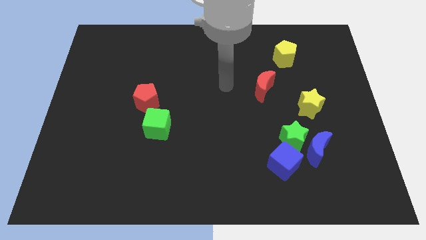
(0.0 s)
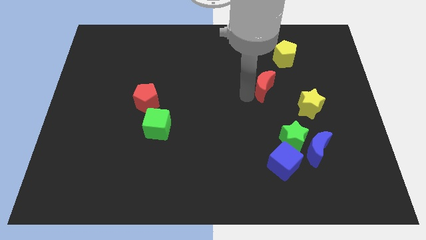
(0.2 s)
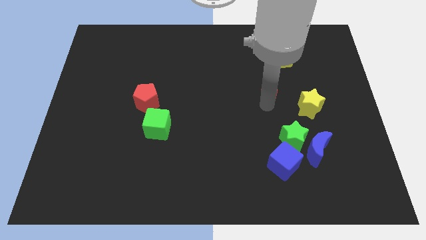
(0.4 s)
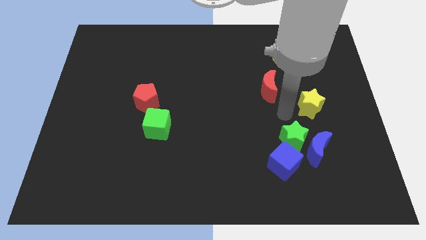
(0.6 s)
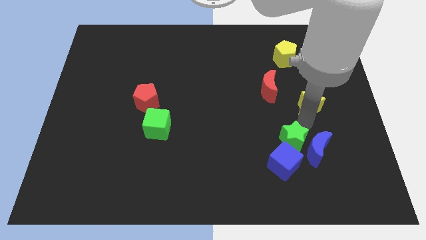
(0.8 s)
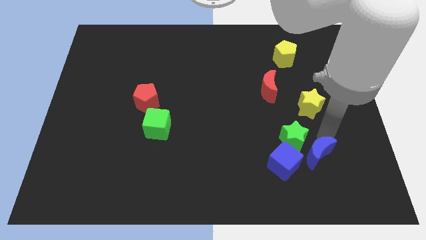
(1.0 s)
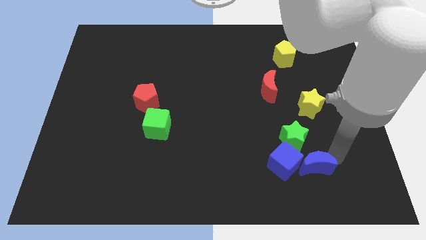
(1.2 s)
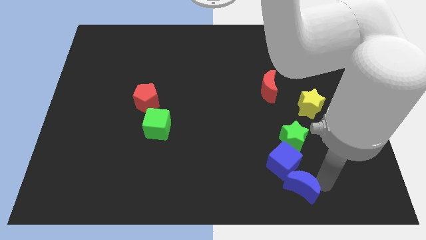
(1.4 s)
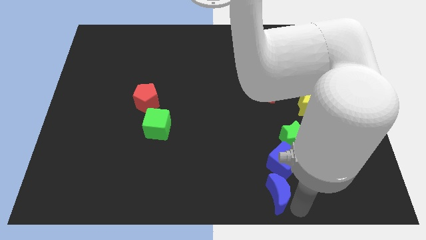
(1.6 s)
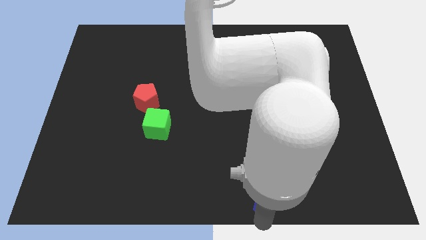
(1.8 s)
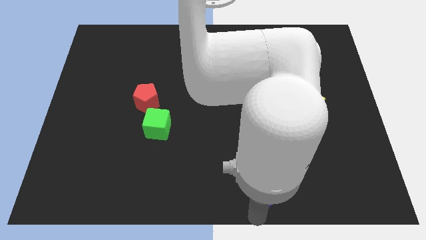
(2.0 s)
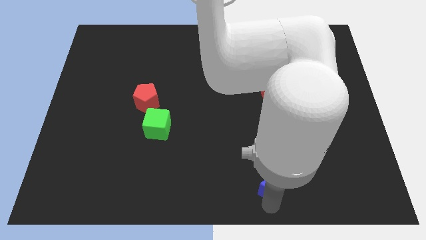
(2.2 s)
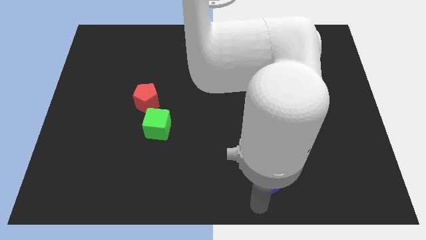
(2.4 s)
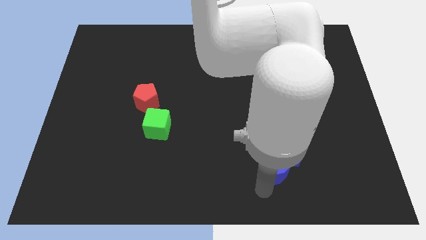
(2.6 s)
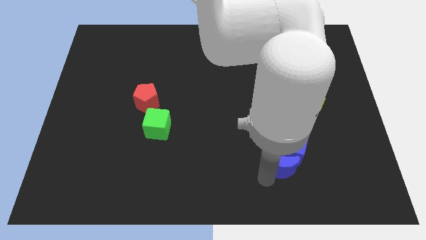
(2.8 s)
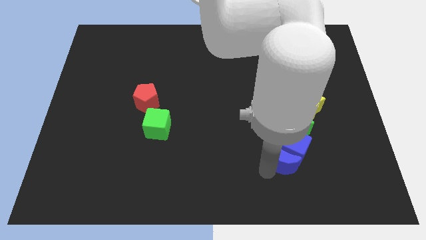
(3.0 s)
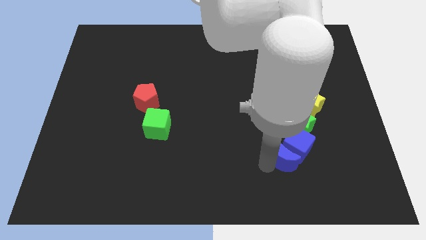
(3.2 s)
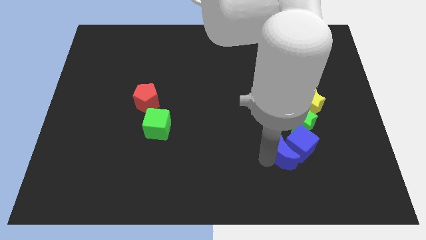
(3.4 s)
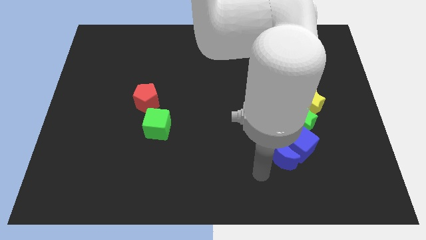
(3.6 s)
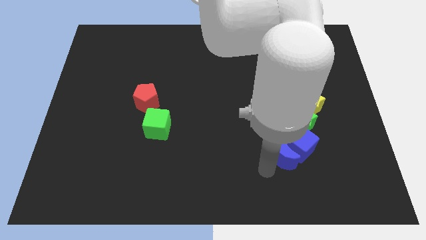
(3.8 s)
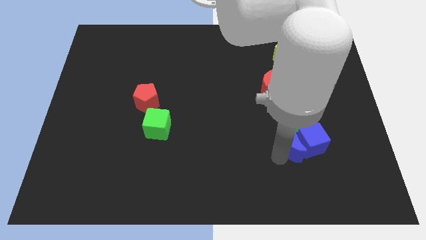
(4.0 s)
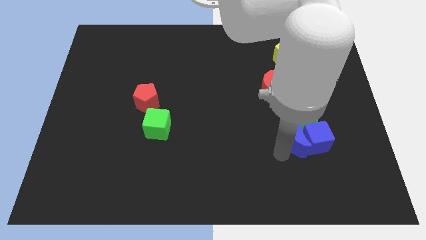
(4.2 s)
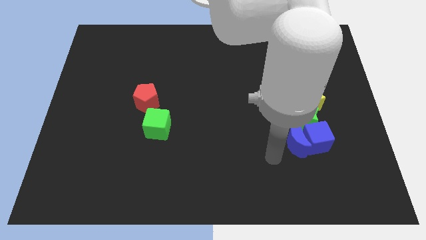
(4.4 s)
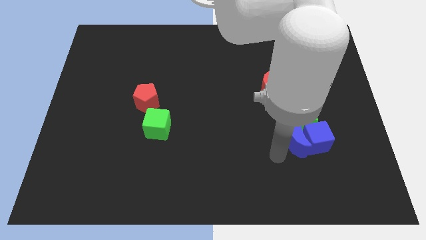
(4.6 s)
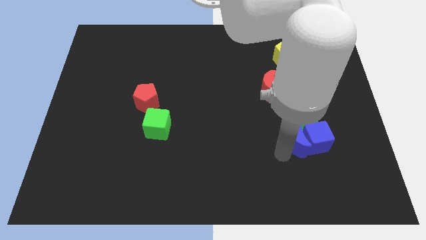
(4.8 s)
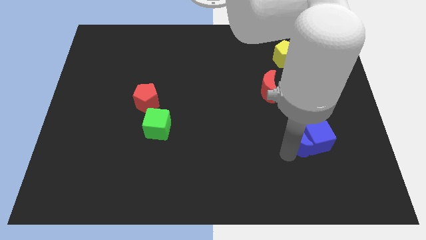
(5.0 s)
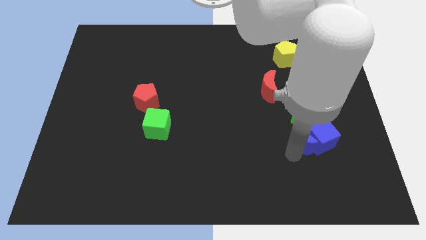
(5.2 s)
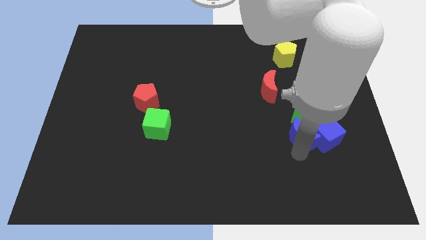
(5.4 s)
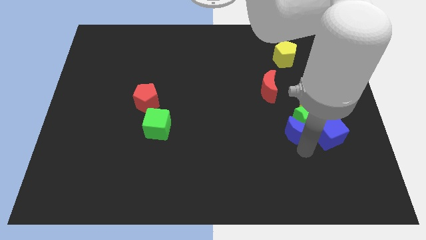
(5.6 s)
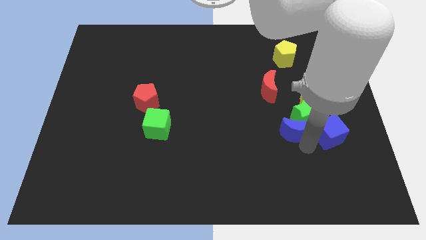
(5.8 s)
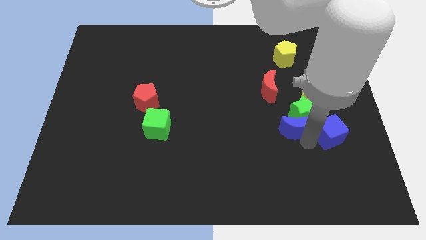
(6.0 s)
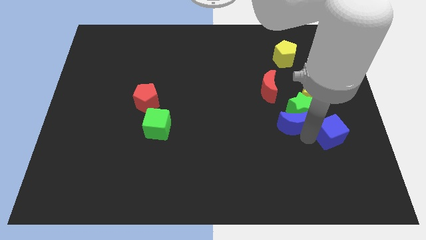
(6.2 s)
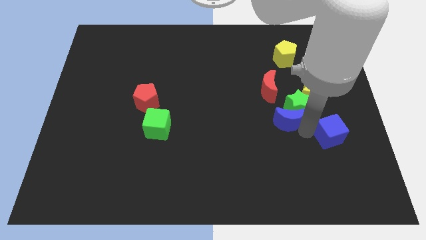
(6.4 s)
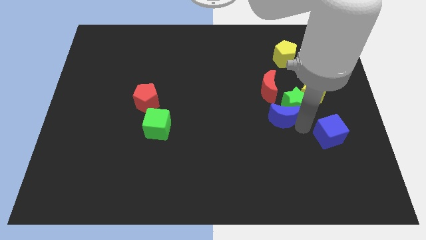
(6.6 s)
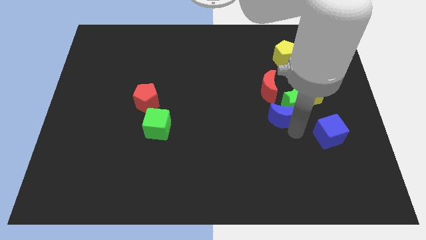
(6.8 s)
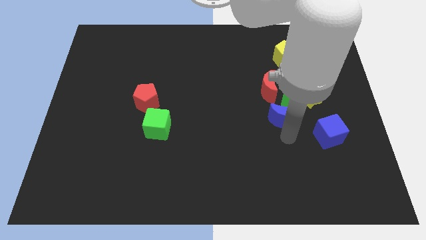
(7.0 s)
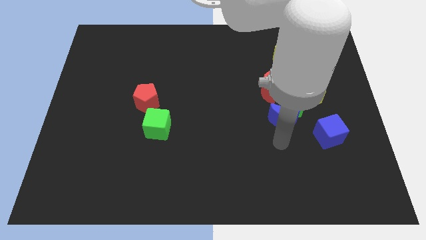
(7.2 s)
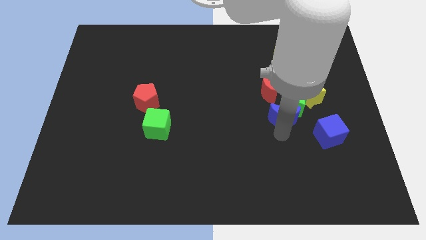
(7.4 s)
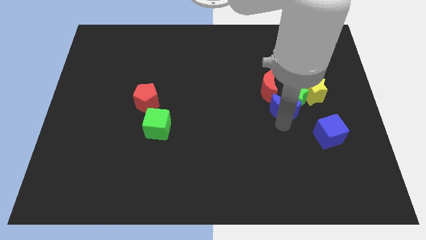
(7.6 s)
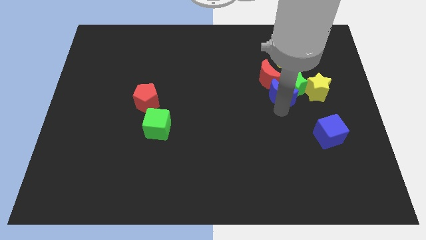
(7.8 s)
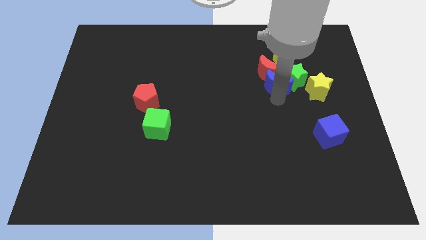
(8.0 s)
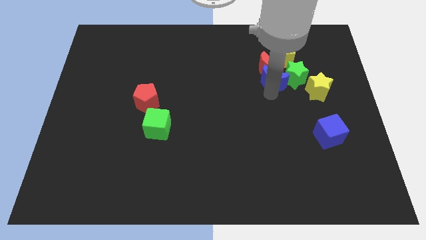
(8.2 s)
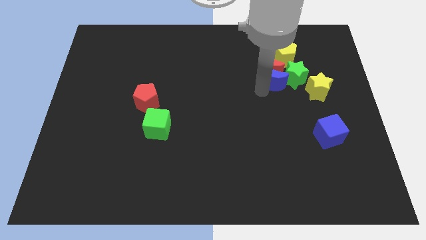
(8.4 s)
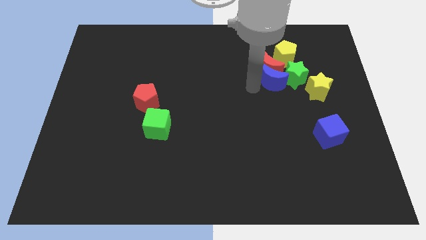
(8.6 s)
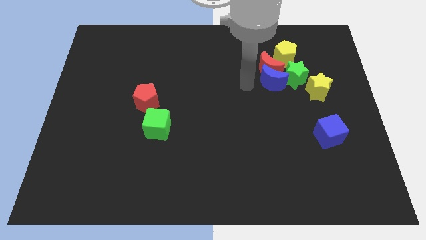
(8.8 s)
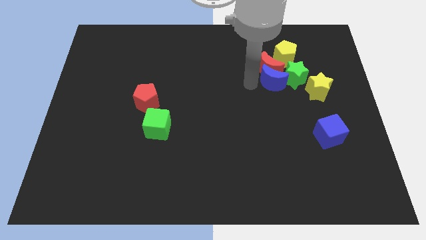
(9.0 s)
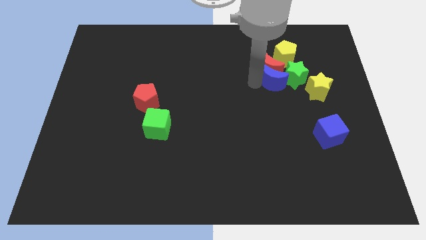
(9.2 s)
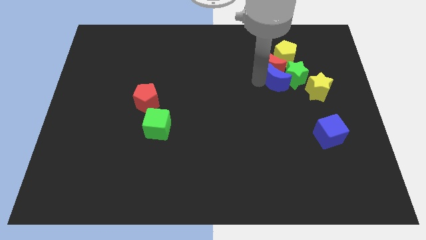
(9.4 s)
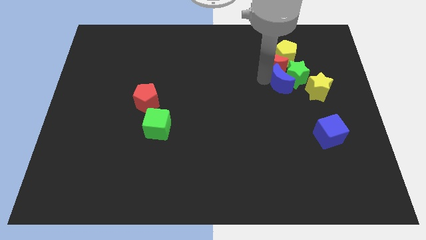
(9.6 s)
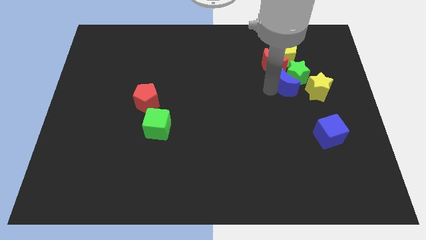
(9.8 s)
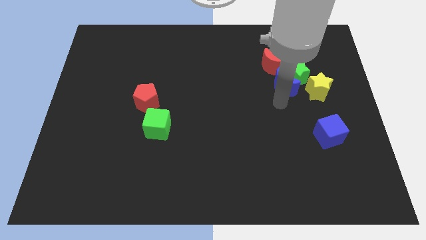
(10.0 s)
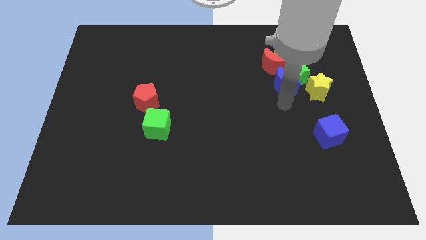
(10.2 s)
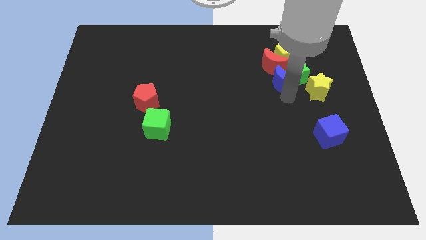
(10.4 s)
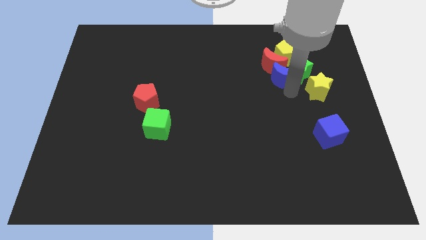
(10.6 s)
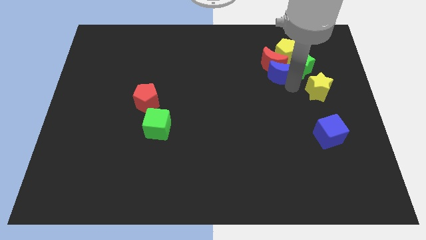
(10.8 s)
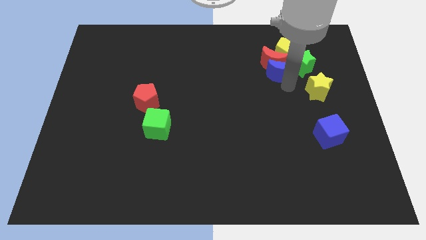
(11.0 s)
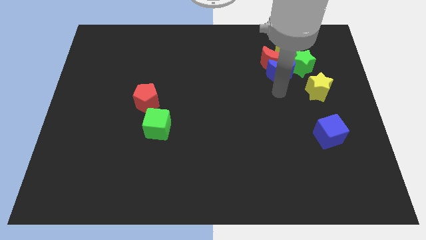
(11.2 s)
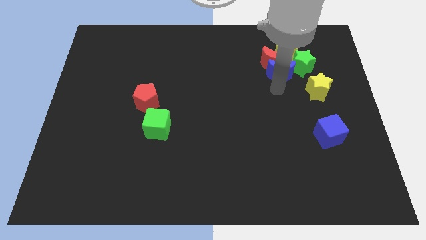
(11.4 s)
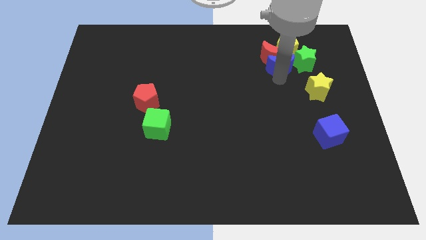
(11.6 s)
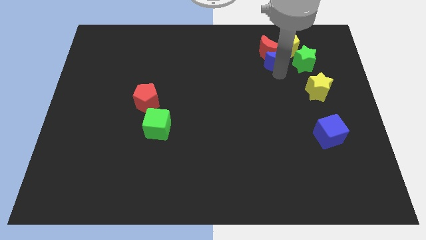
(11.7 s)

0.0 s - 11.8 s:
push the blue moon next to the yellow pentagon

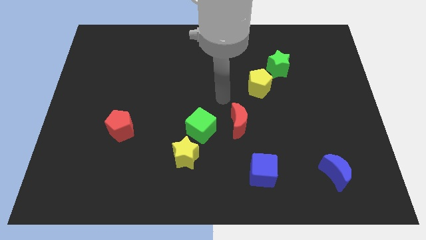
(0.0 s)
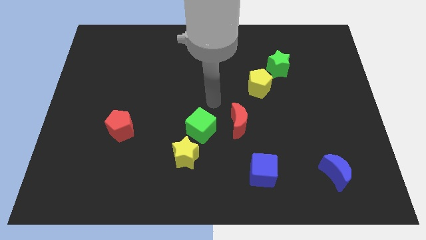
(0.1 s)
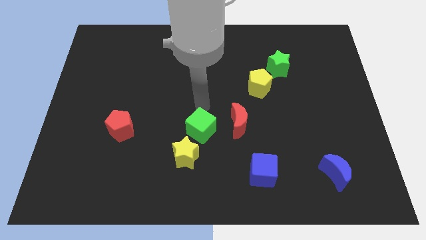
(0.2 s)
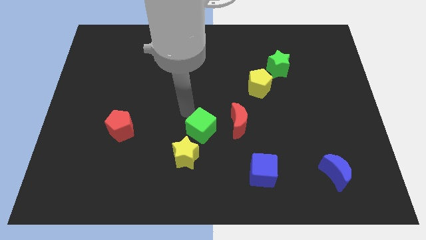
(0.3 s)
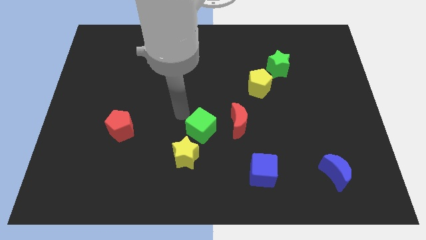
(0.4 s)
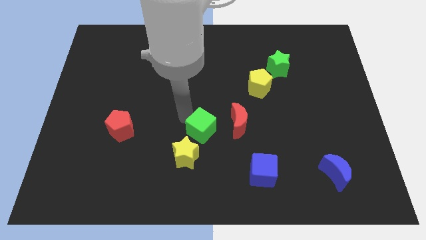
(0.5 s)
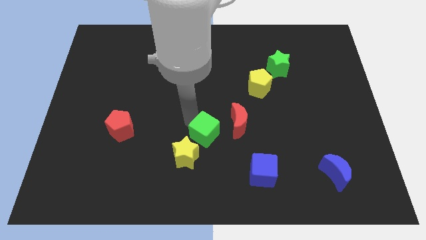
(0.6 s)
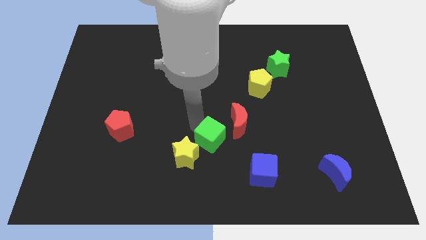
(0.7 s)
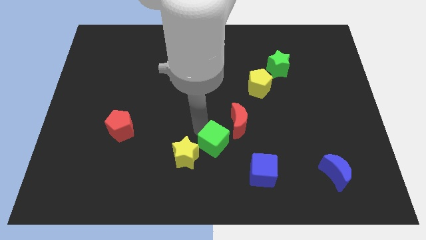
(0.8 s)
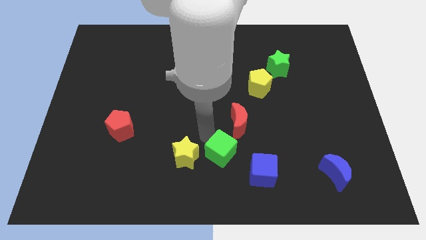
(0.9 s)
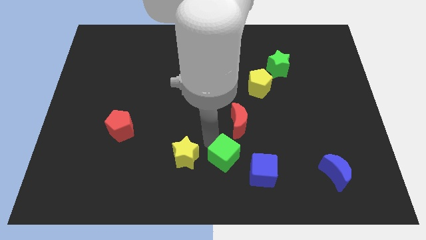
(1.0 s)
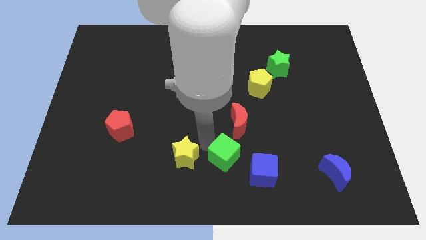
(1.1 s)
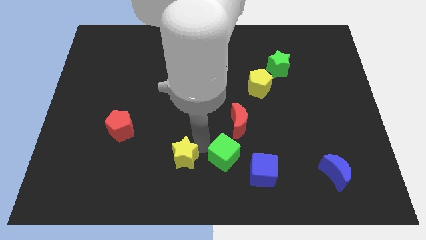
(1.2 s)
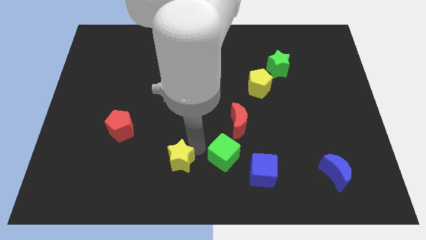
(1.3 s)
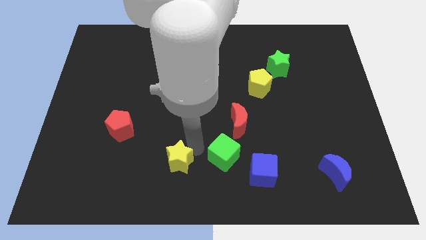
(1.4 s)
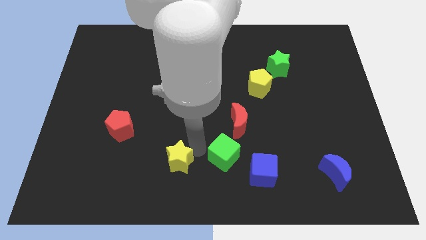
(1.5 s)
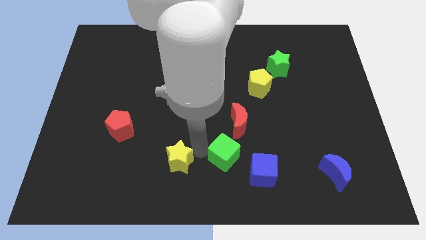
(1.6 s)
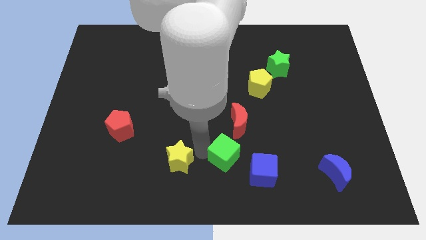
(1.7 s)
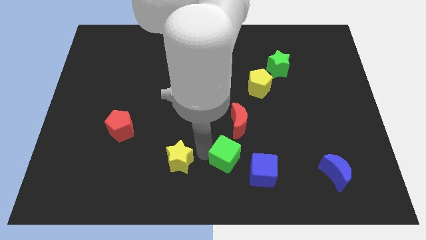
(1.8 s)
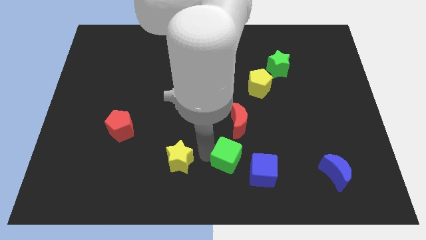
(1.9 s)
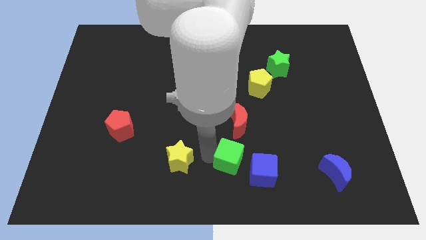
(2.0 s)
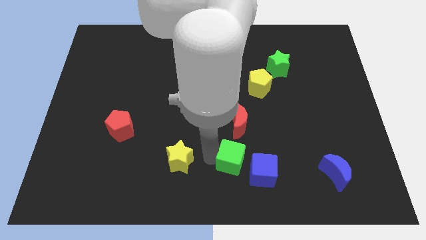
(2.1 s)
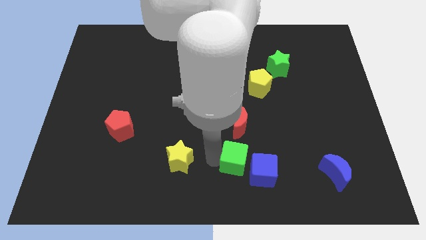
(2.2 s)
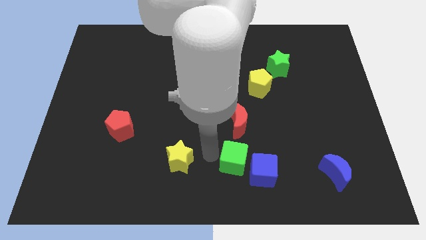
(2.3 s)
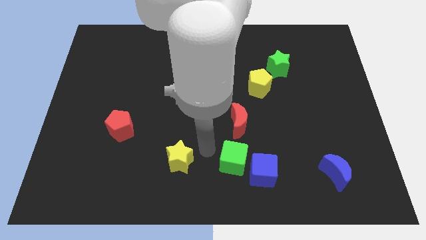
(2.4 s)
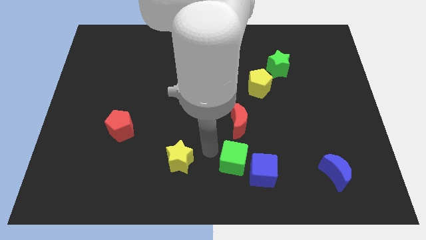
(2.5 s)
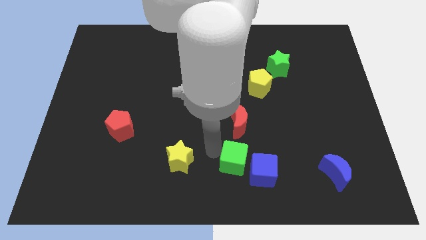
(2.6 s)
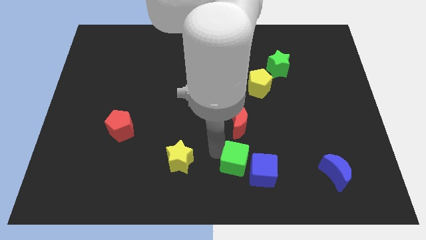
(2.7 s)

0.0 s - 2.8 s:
move the green cube towards the blue cube
